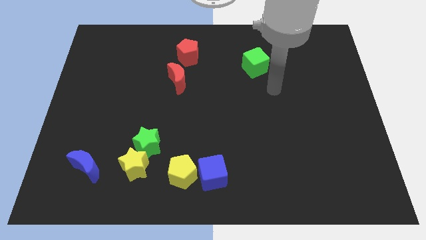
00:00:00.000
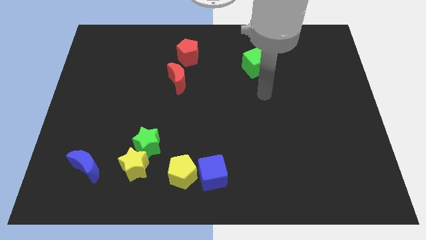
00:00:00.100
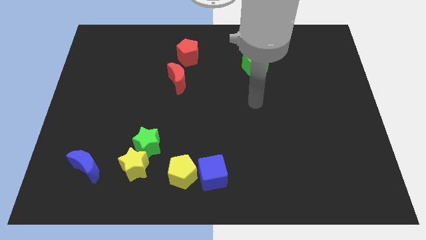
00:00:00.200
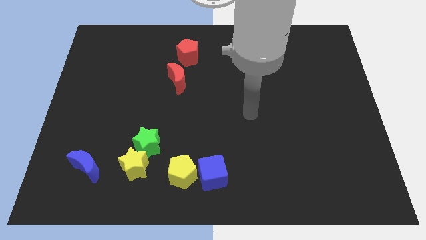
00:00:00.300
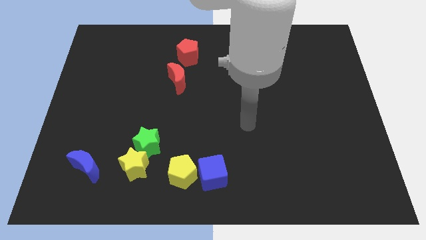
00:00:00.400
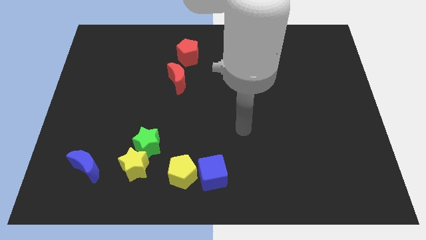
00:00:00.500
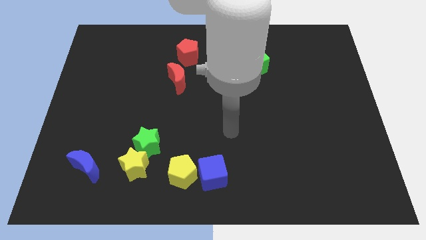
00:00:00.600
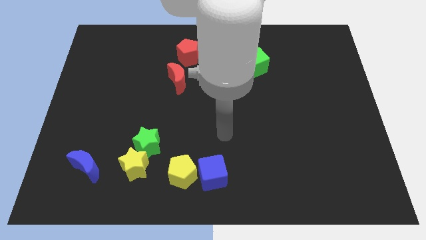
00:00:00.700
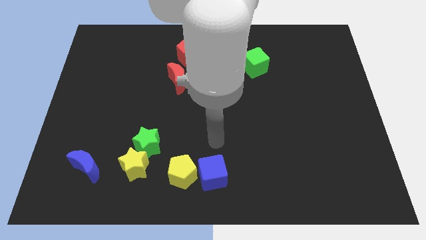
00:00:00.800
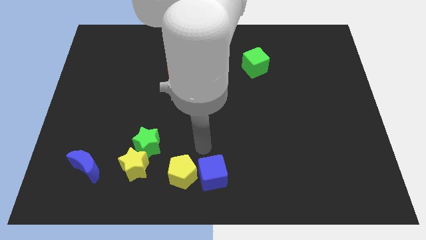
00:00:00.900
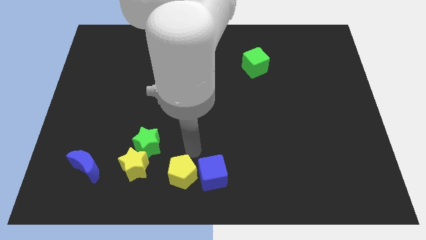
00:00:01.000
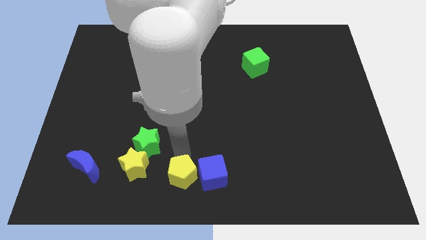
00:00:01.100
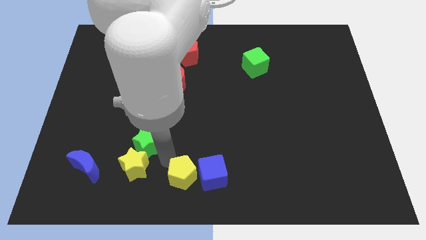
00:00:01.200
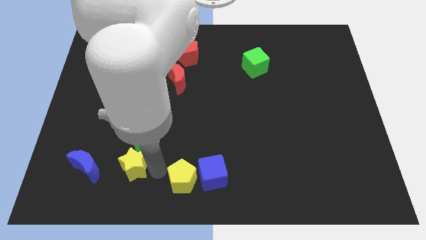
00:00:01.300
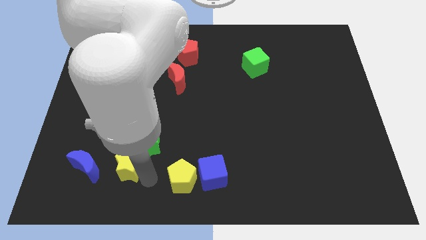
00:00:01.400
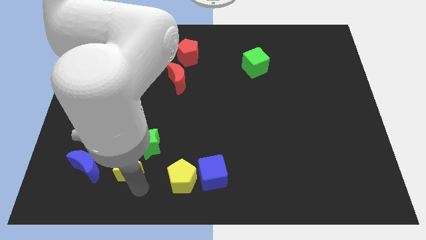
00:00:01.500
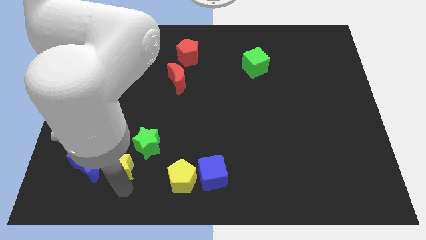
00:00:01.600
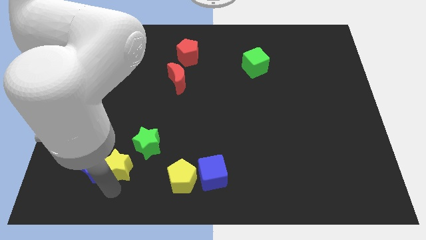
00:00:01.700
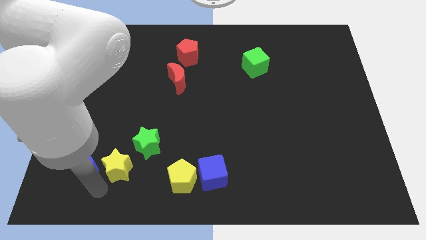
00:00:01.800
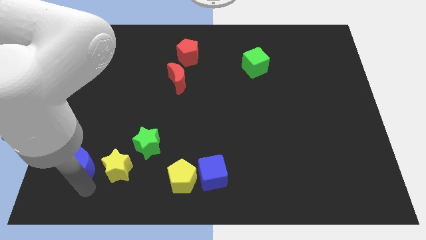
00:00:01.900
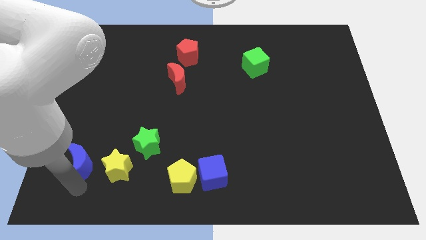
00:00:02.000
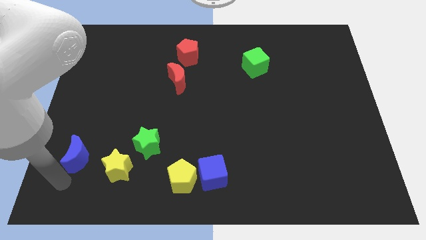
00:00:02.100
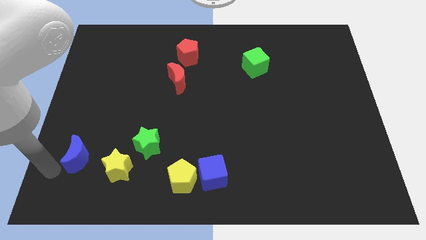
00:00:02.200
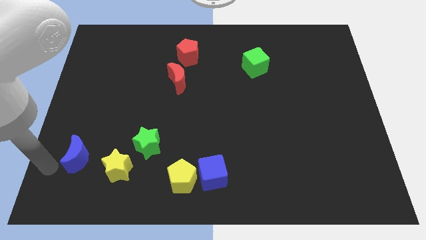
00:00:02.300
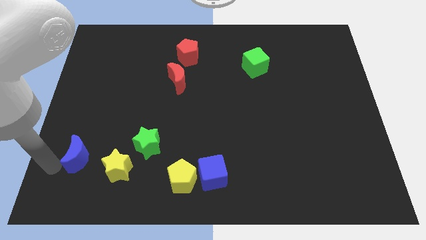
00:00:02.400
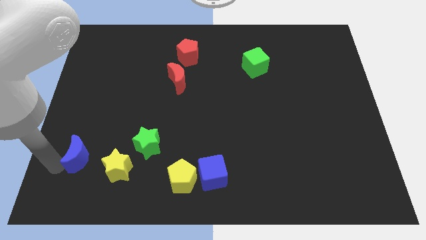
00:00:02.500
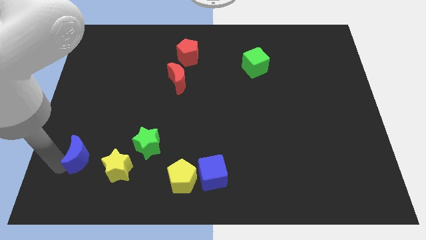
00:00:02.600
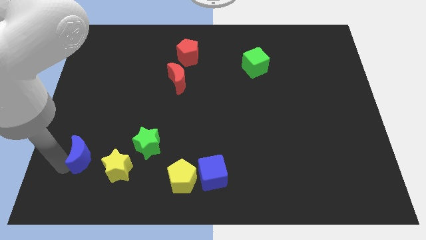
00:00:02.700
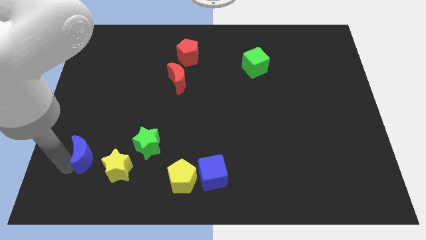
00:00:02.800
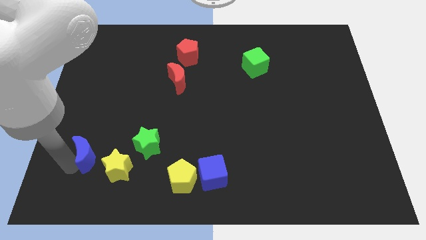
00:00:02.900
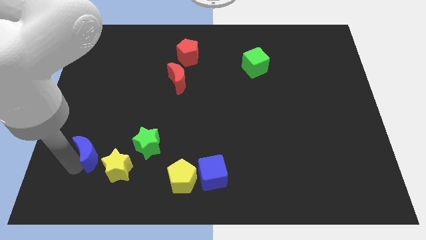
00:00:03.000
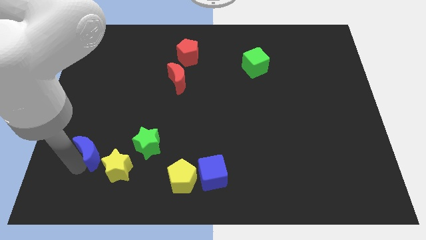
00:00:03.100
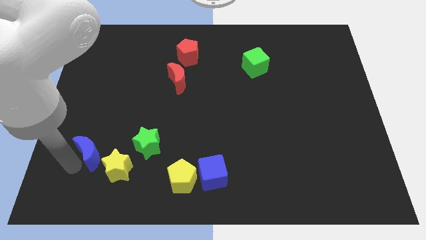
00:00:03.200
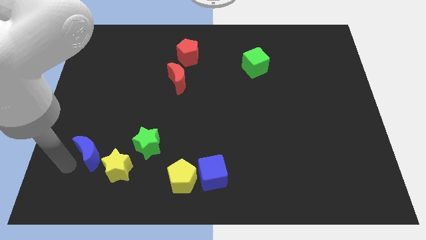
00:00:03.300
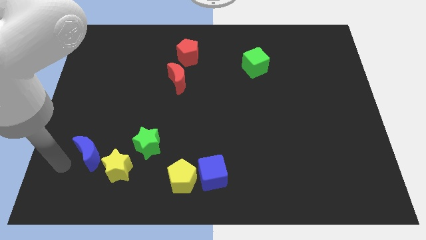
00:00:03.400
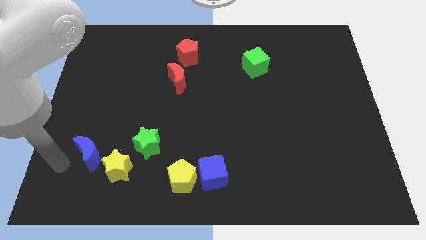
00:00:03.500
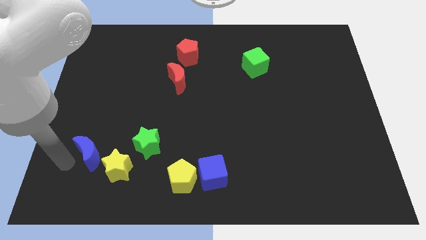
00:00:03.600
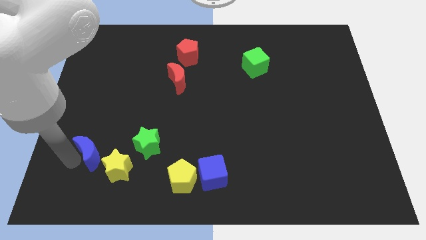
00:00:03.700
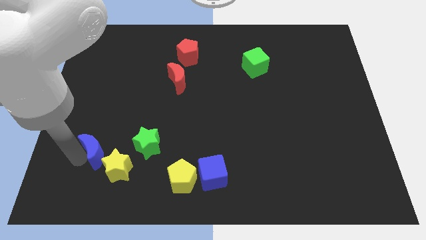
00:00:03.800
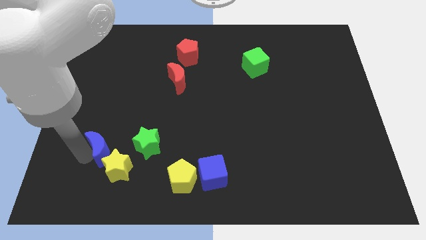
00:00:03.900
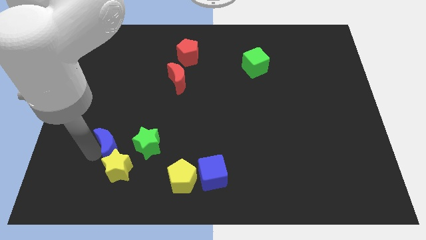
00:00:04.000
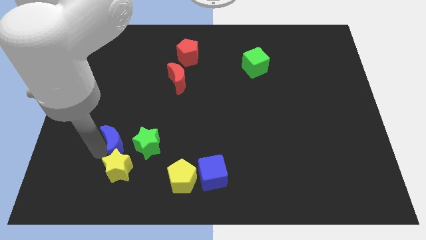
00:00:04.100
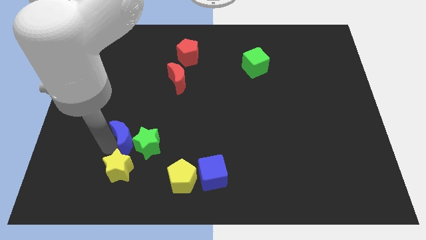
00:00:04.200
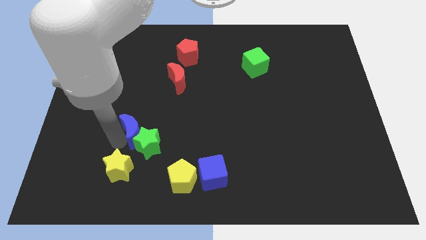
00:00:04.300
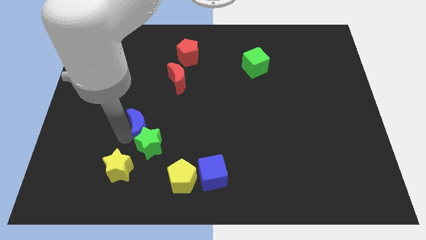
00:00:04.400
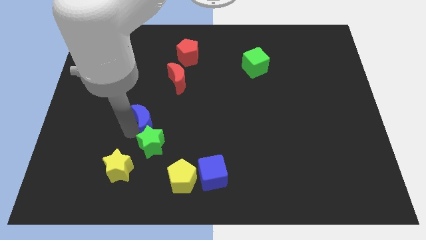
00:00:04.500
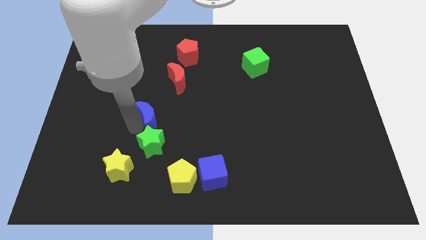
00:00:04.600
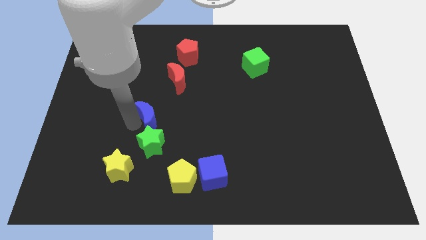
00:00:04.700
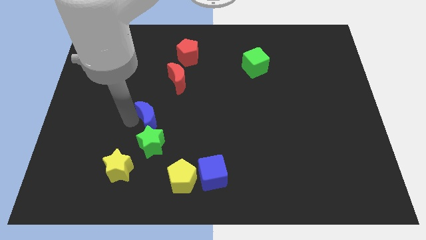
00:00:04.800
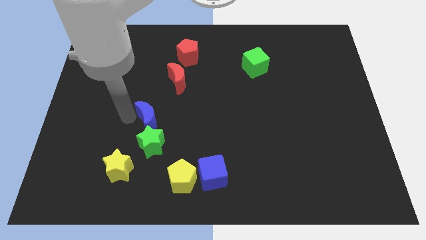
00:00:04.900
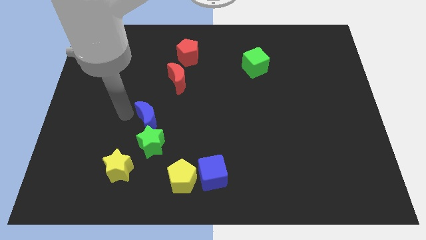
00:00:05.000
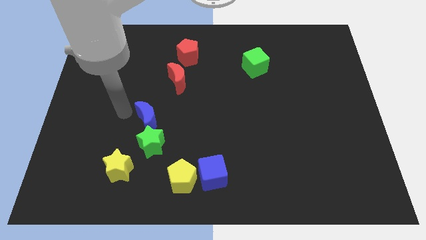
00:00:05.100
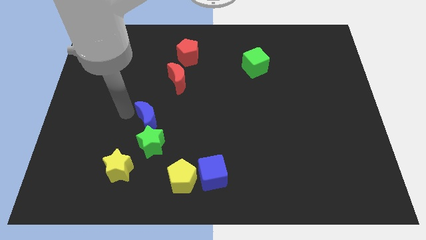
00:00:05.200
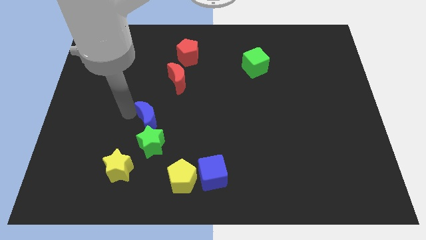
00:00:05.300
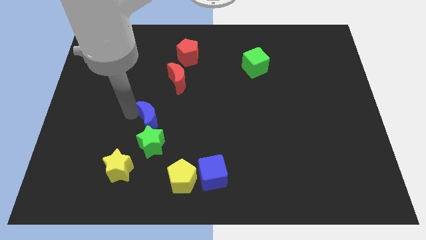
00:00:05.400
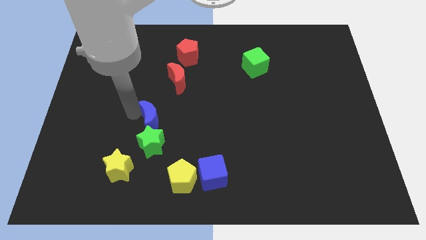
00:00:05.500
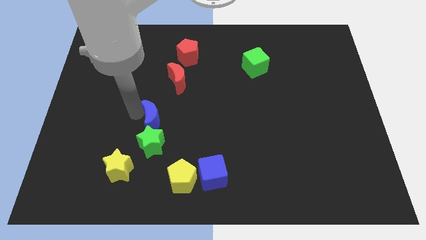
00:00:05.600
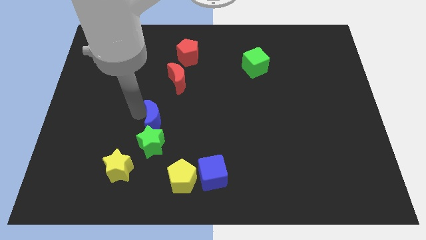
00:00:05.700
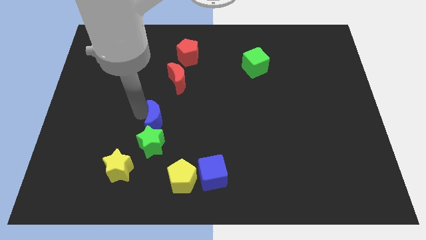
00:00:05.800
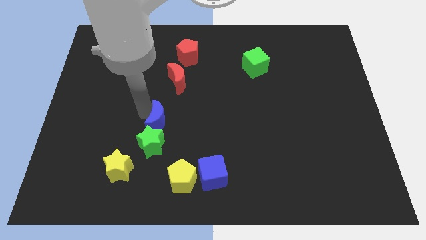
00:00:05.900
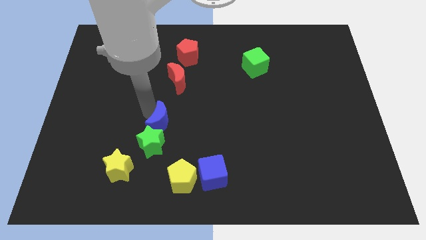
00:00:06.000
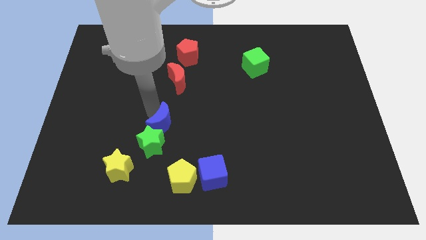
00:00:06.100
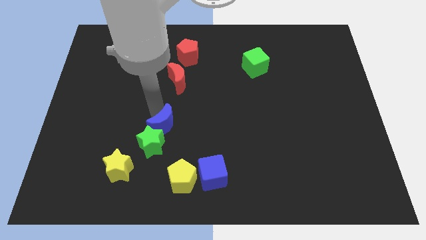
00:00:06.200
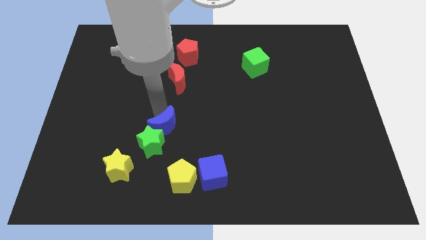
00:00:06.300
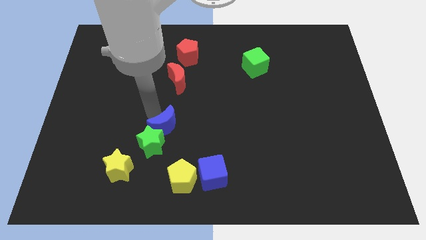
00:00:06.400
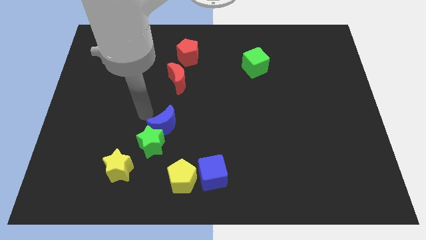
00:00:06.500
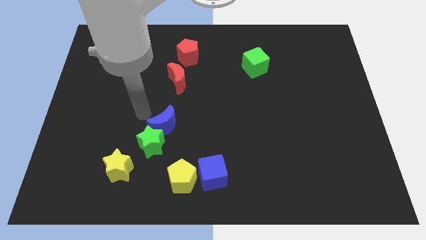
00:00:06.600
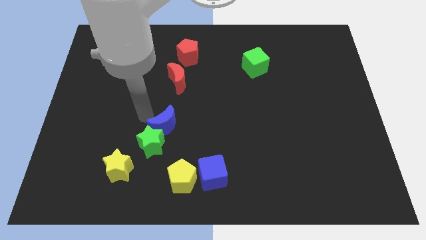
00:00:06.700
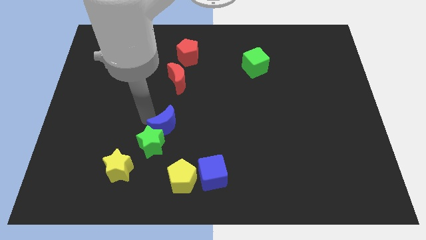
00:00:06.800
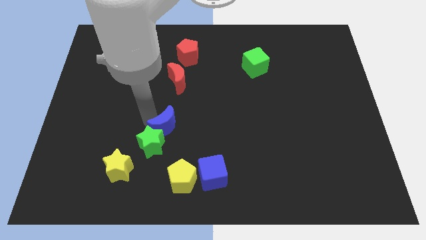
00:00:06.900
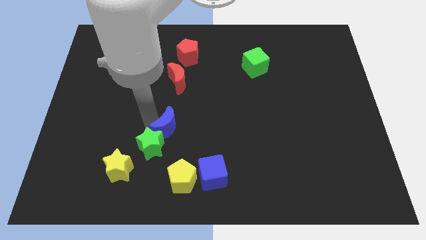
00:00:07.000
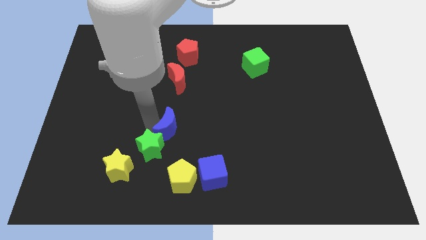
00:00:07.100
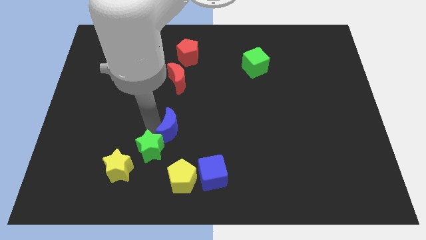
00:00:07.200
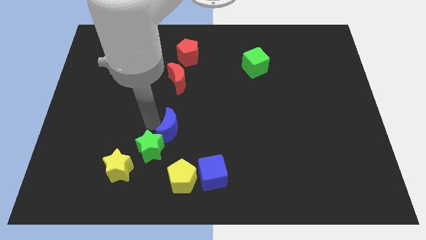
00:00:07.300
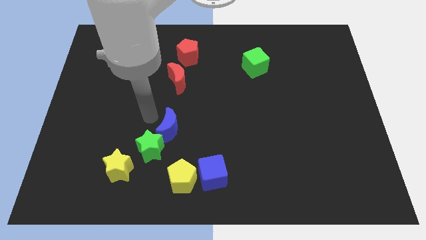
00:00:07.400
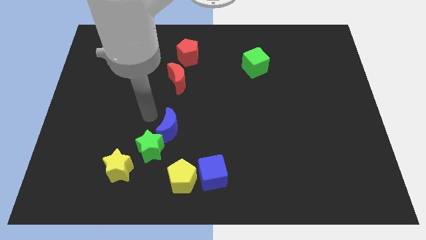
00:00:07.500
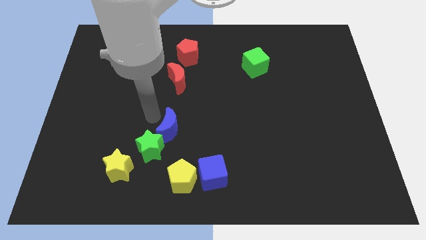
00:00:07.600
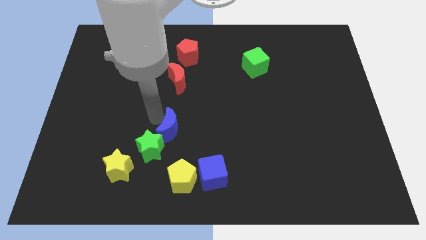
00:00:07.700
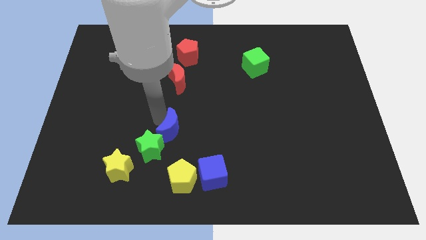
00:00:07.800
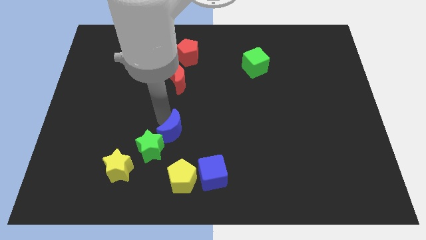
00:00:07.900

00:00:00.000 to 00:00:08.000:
slide the blue moon to the right side of the green star

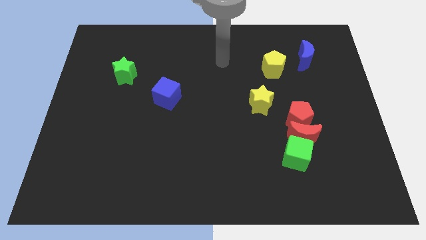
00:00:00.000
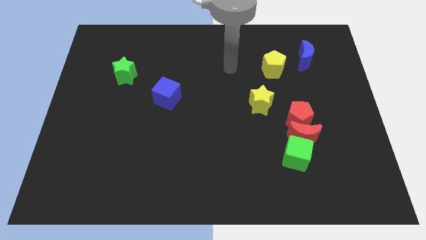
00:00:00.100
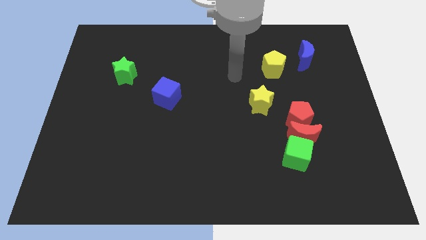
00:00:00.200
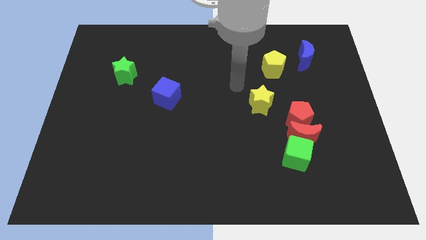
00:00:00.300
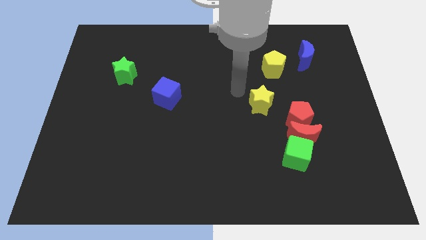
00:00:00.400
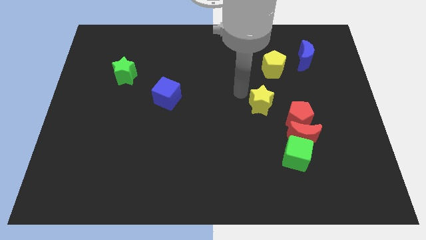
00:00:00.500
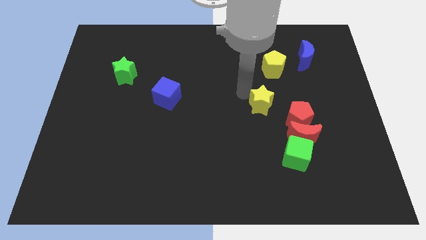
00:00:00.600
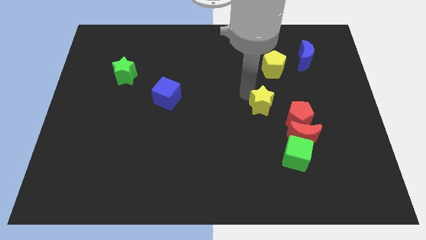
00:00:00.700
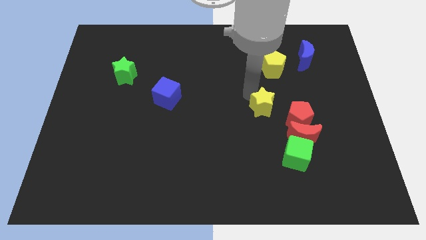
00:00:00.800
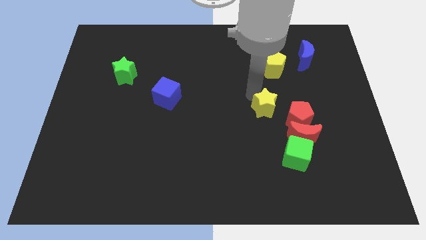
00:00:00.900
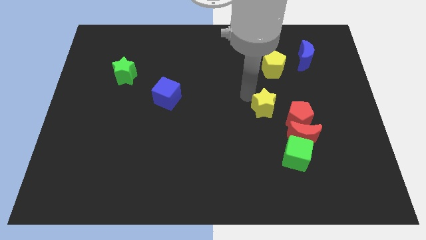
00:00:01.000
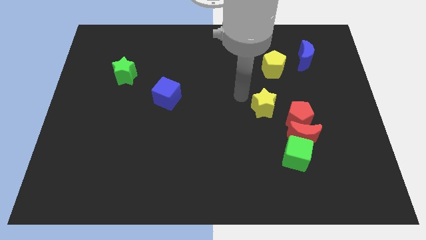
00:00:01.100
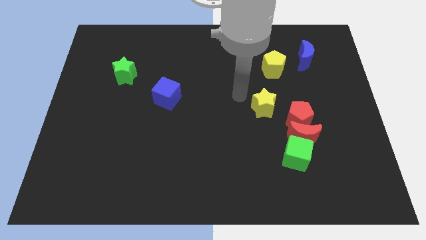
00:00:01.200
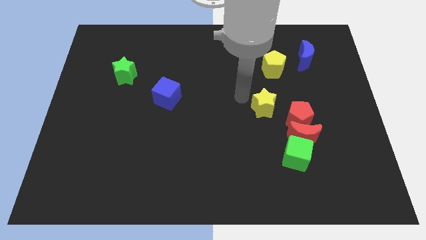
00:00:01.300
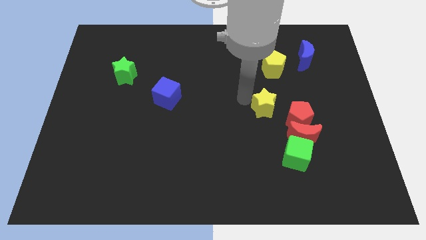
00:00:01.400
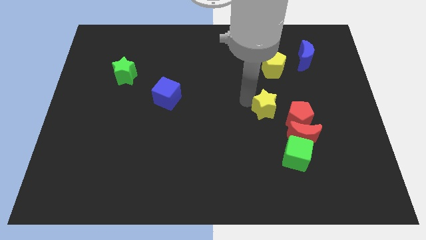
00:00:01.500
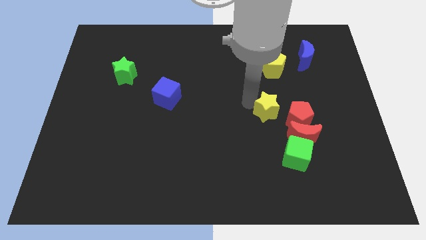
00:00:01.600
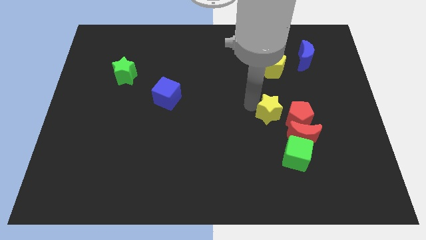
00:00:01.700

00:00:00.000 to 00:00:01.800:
push the yellow star to the top side of the green cube
